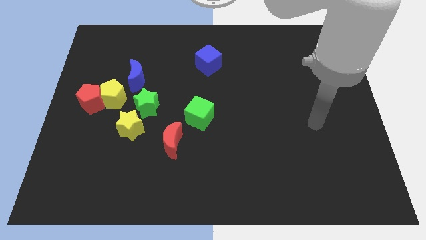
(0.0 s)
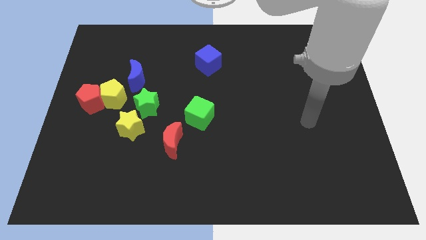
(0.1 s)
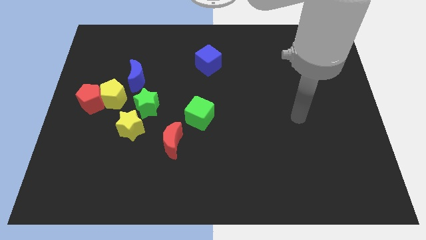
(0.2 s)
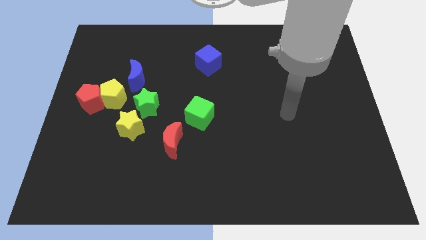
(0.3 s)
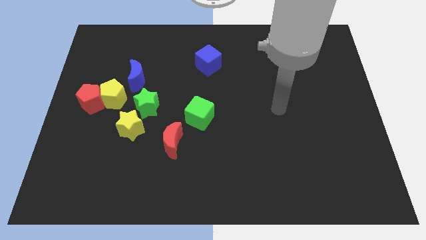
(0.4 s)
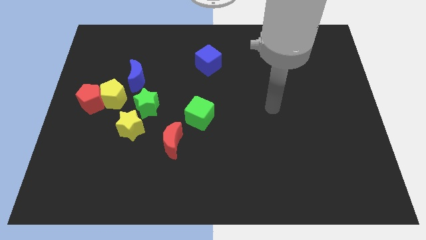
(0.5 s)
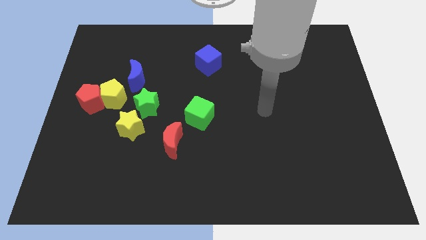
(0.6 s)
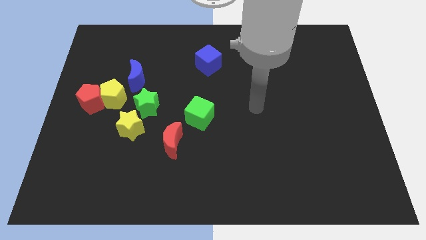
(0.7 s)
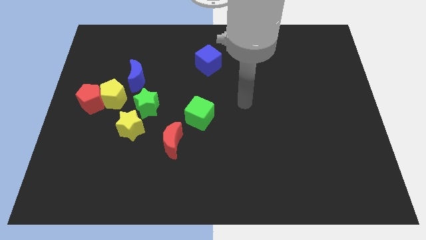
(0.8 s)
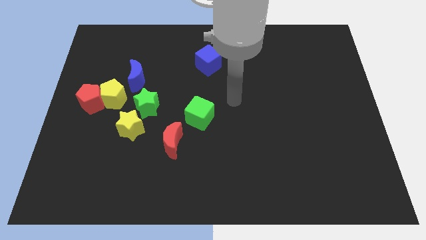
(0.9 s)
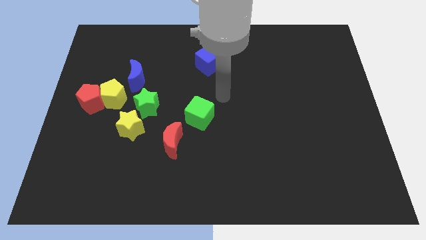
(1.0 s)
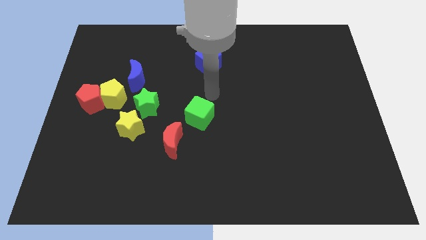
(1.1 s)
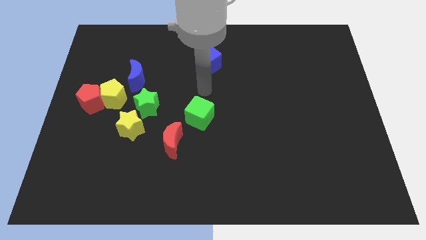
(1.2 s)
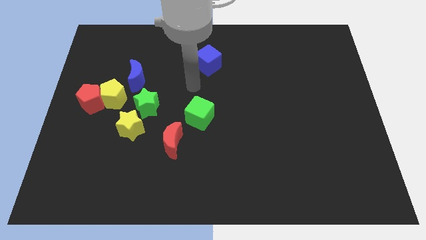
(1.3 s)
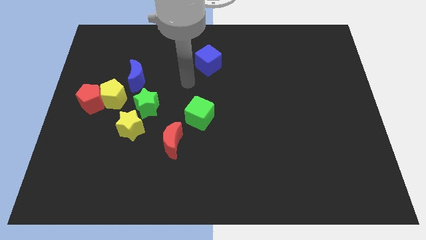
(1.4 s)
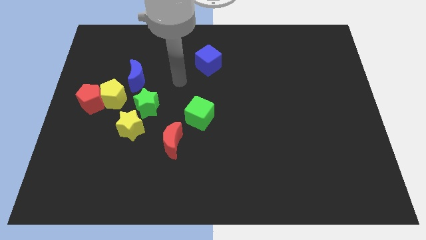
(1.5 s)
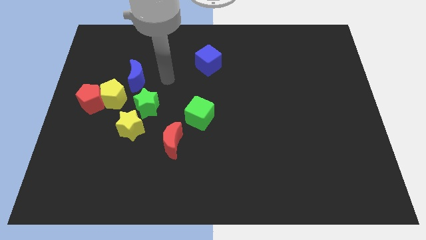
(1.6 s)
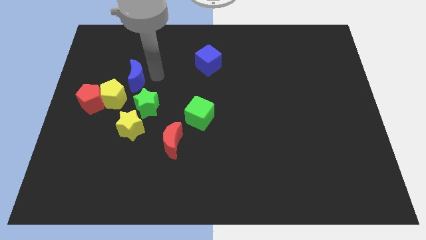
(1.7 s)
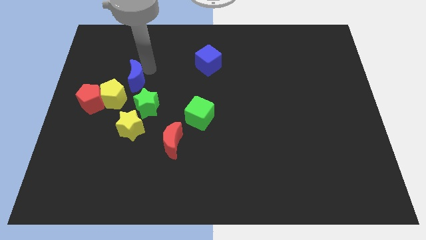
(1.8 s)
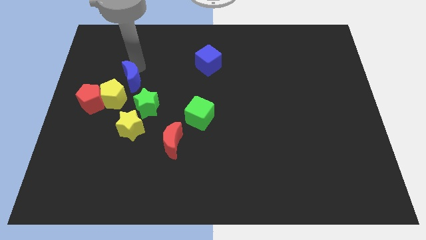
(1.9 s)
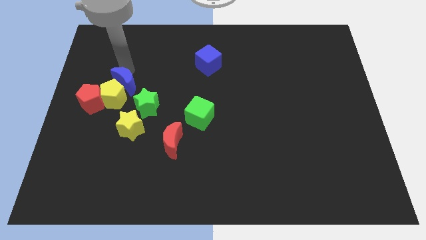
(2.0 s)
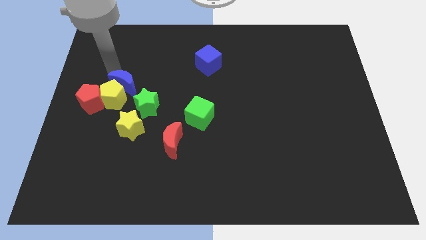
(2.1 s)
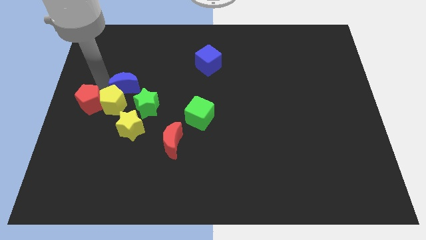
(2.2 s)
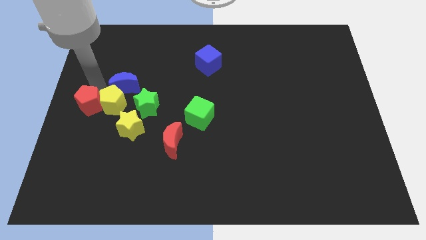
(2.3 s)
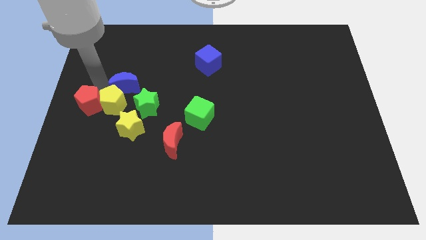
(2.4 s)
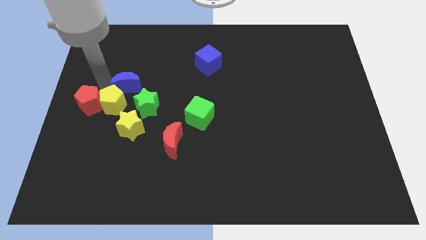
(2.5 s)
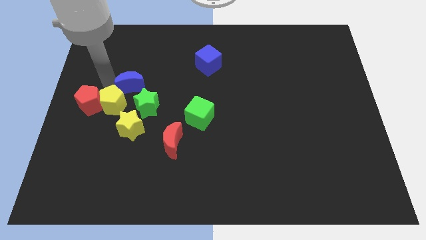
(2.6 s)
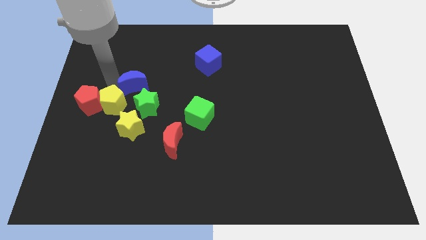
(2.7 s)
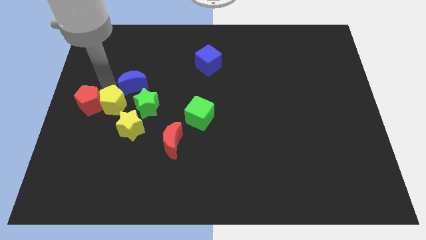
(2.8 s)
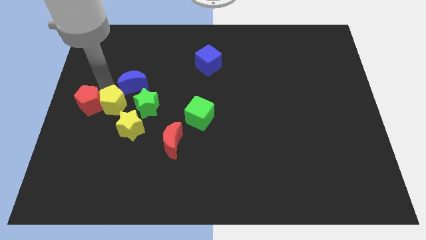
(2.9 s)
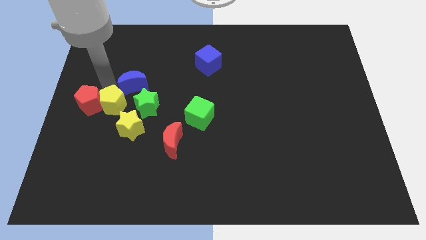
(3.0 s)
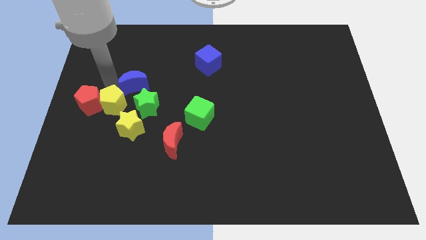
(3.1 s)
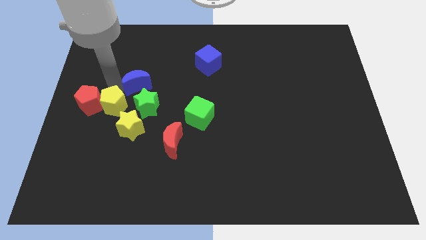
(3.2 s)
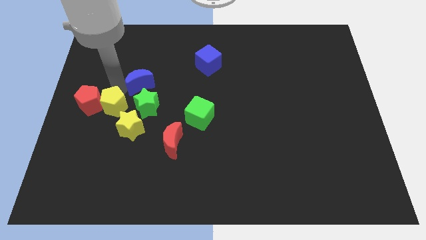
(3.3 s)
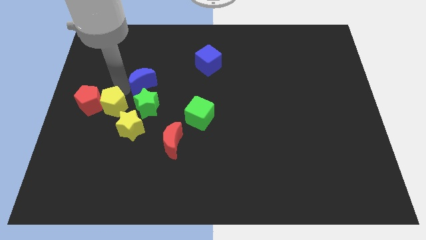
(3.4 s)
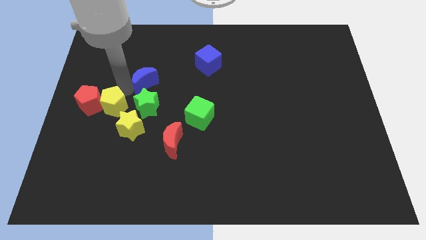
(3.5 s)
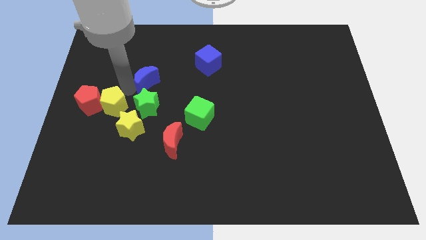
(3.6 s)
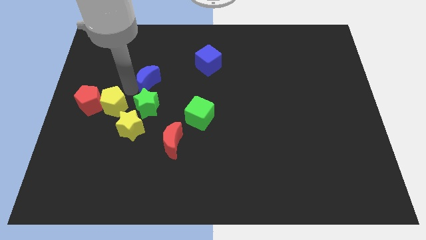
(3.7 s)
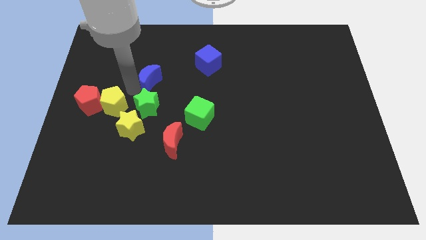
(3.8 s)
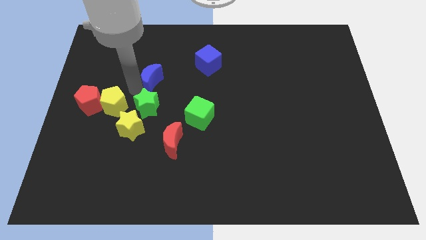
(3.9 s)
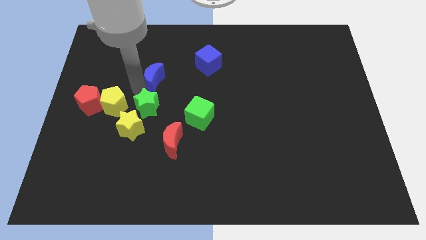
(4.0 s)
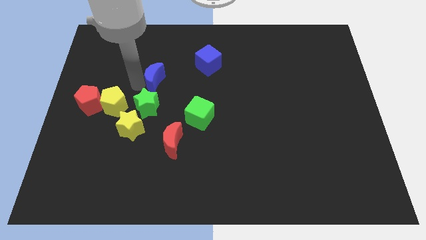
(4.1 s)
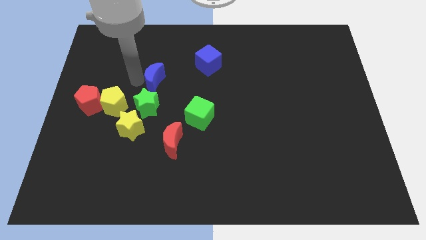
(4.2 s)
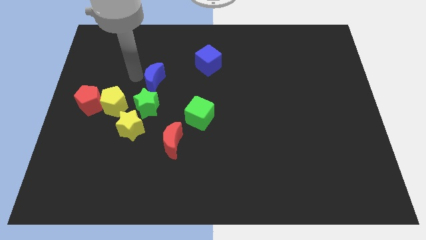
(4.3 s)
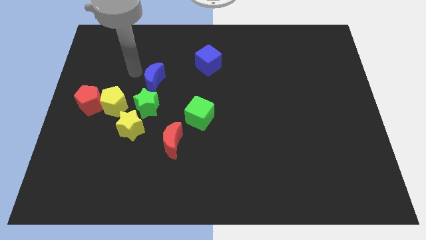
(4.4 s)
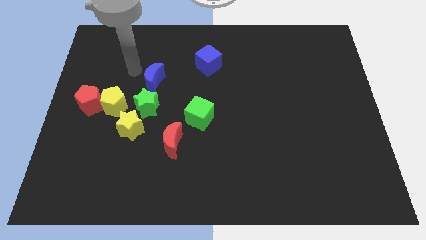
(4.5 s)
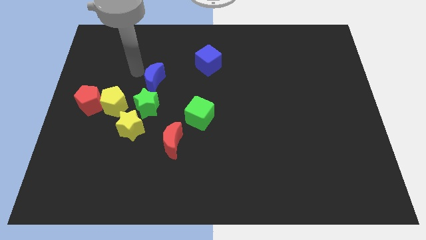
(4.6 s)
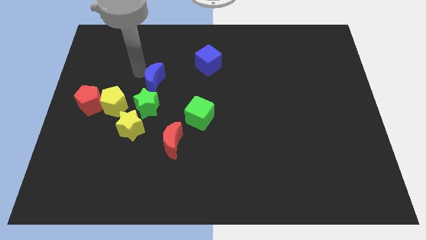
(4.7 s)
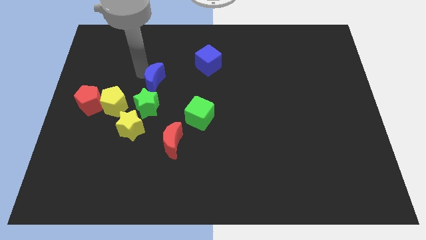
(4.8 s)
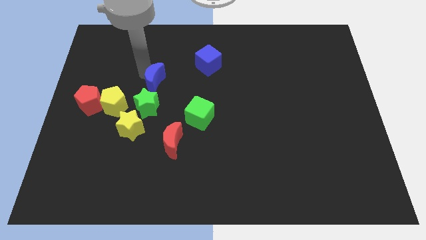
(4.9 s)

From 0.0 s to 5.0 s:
slide the blue moon to the top right of the green star

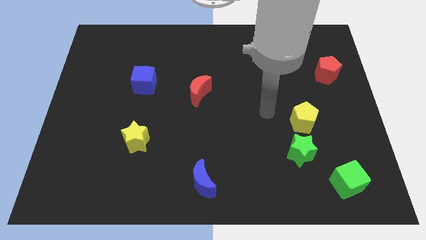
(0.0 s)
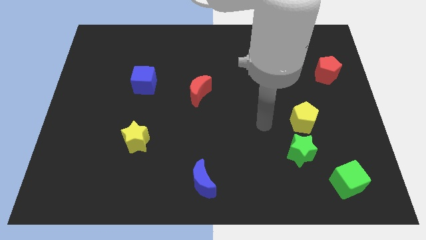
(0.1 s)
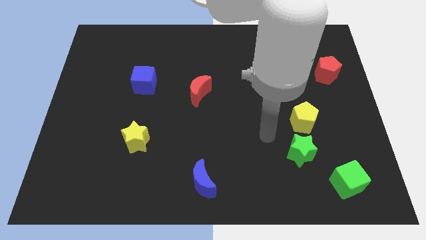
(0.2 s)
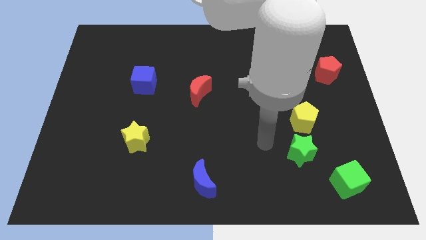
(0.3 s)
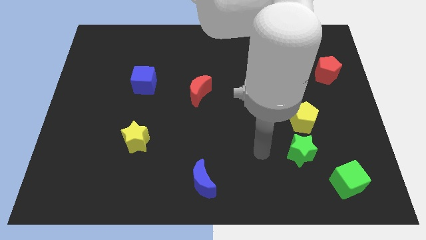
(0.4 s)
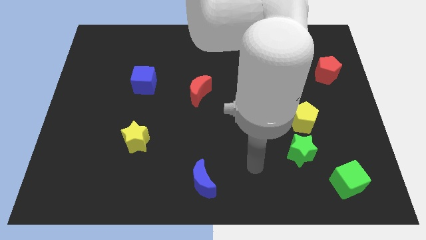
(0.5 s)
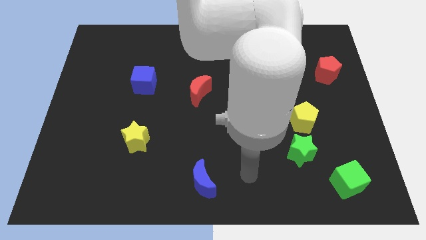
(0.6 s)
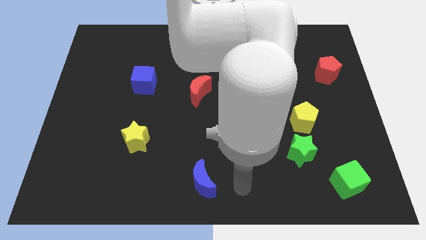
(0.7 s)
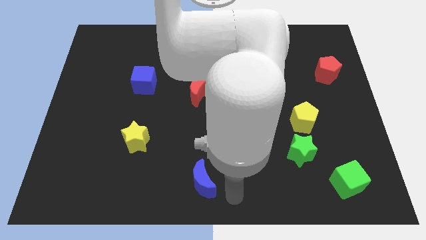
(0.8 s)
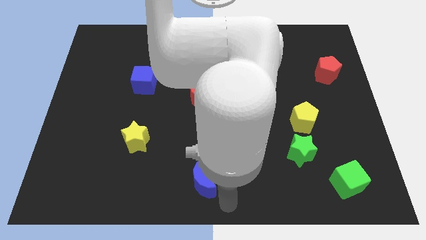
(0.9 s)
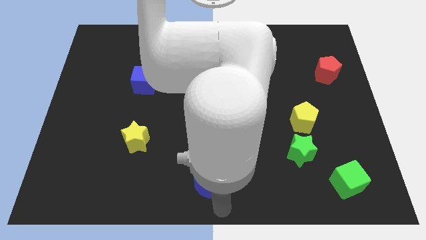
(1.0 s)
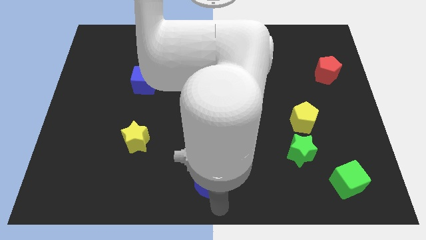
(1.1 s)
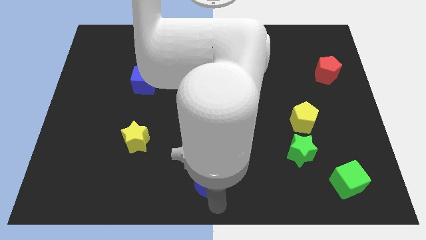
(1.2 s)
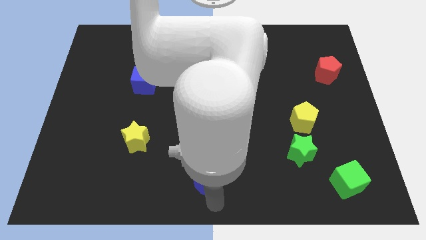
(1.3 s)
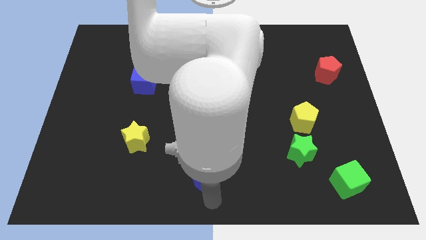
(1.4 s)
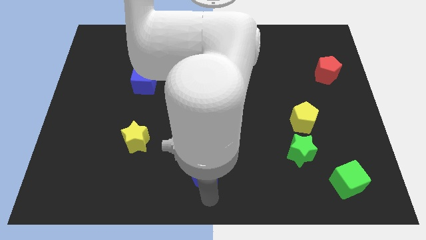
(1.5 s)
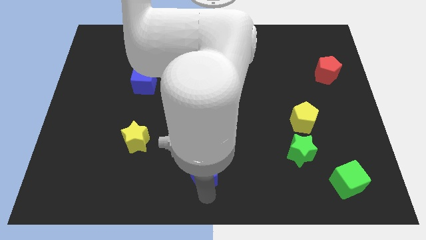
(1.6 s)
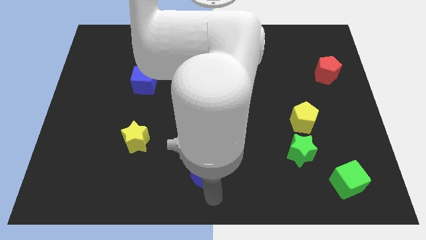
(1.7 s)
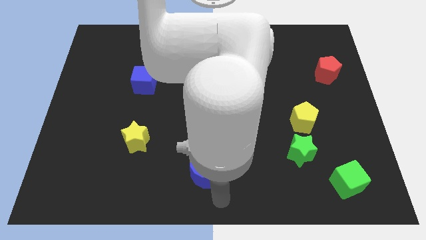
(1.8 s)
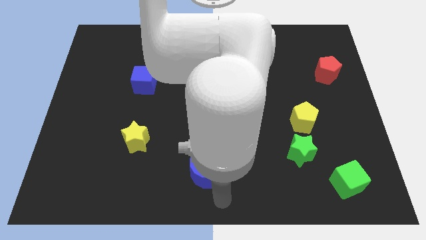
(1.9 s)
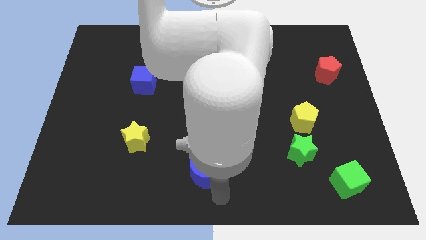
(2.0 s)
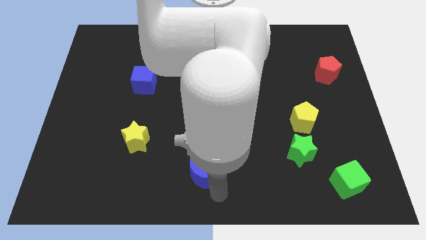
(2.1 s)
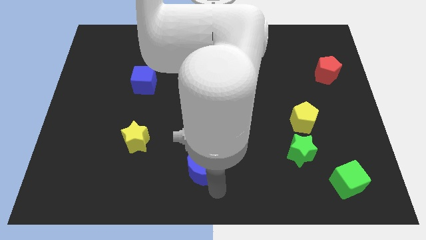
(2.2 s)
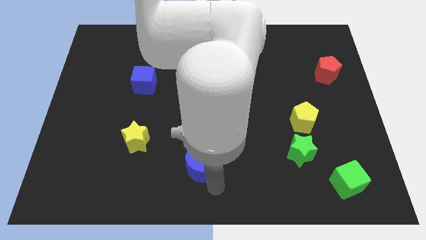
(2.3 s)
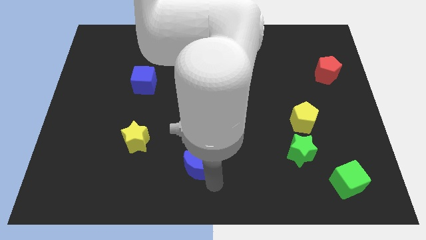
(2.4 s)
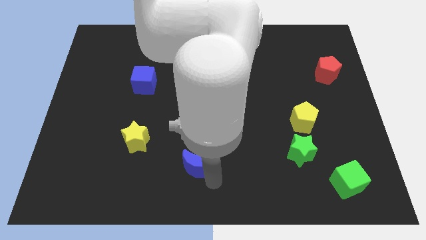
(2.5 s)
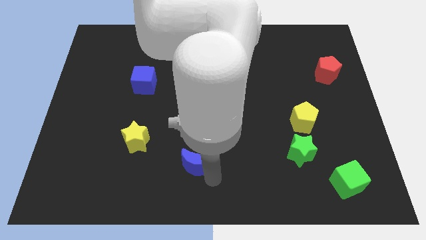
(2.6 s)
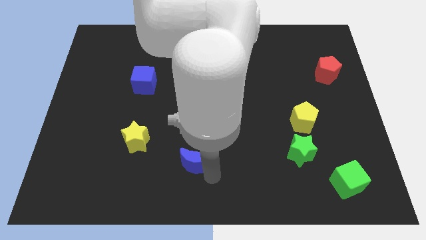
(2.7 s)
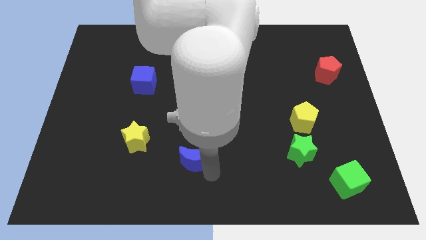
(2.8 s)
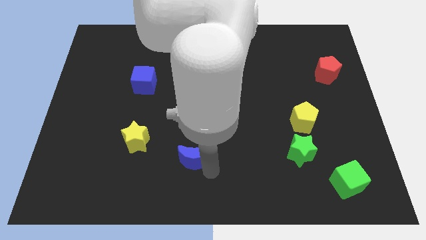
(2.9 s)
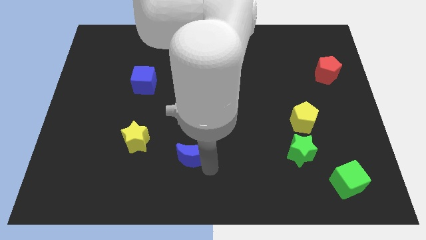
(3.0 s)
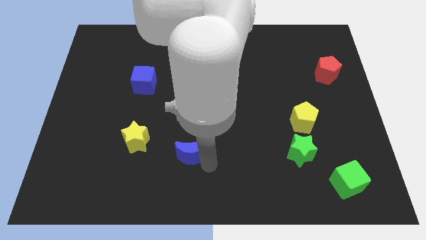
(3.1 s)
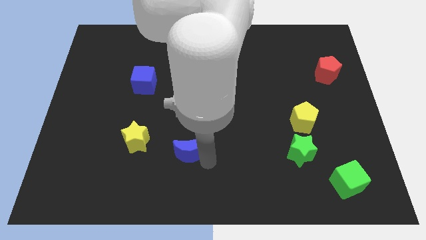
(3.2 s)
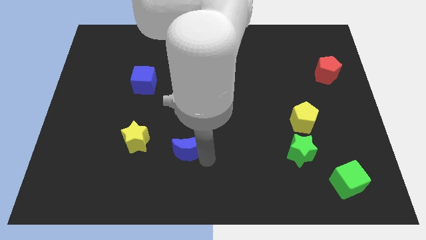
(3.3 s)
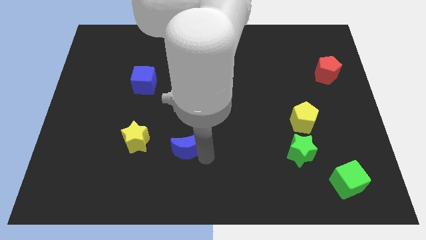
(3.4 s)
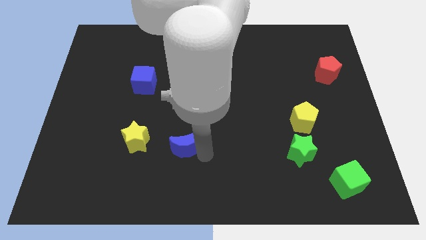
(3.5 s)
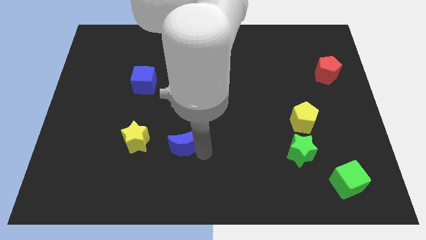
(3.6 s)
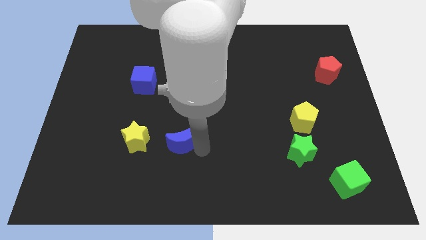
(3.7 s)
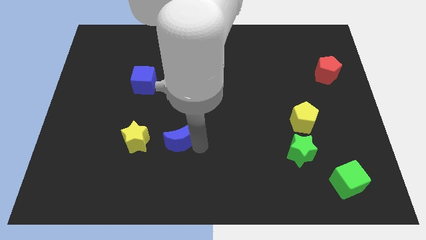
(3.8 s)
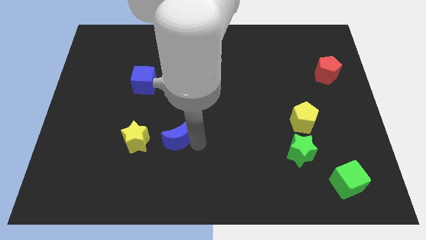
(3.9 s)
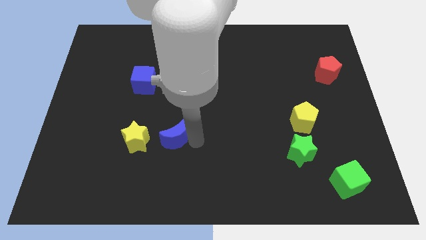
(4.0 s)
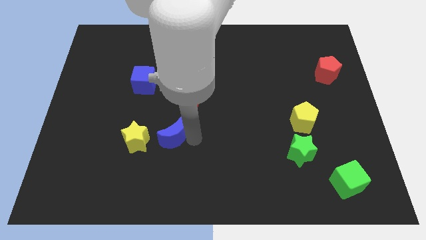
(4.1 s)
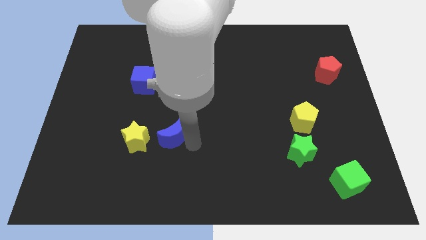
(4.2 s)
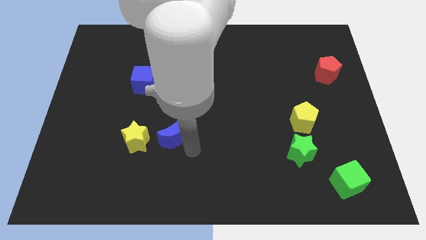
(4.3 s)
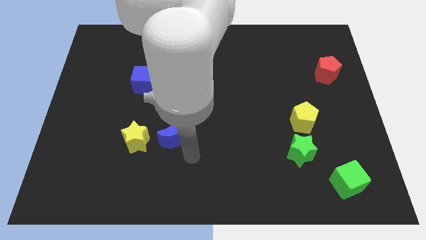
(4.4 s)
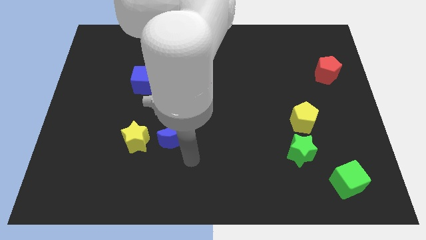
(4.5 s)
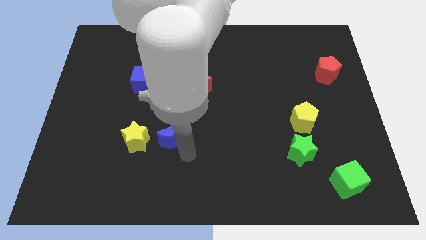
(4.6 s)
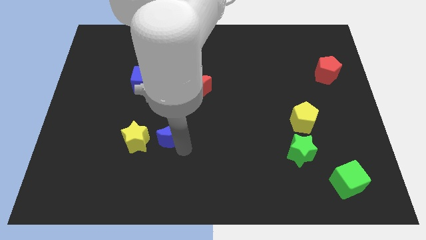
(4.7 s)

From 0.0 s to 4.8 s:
put the blue moon diagonally up and to the right of the yellow star
